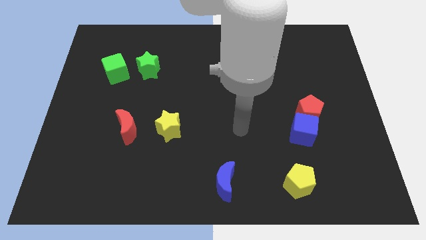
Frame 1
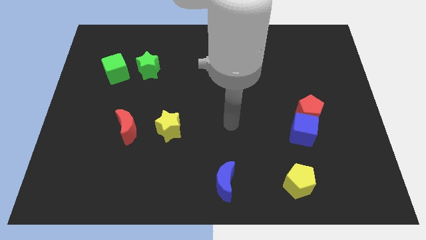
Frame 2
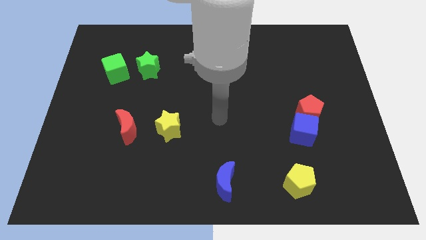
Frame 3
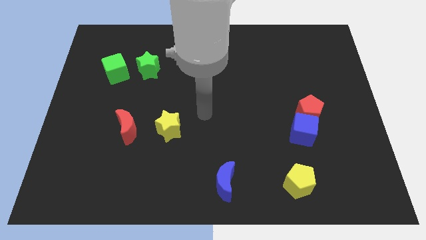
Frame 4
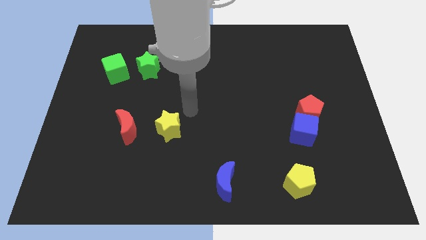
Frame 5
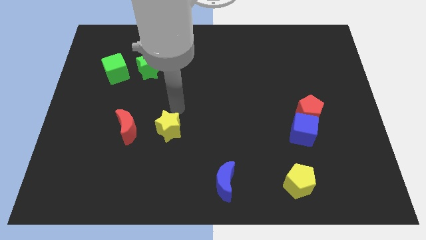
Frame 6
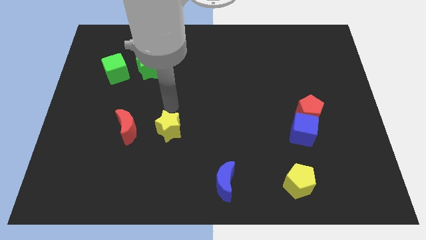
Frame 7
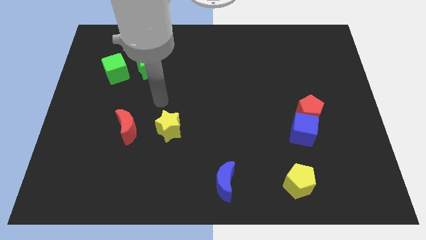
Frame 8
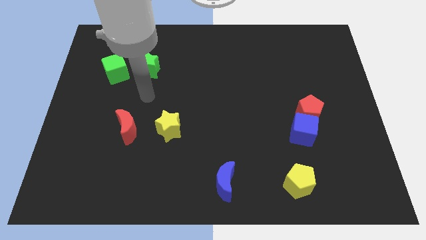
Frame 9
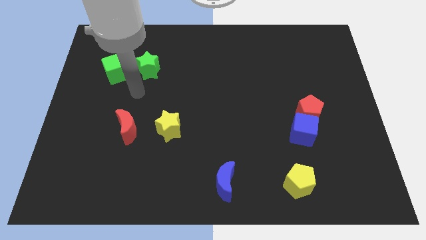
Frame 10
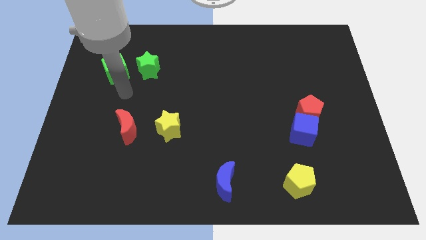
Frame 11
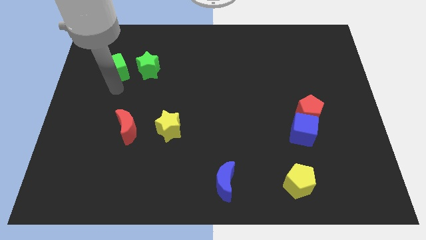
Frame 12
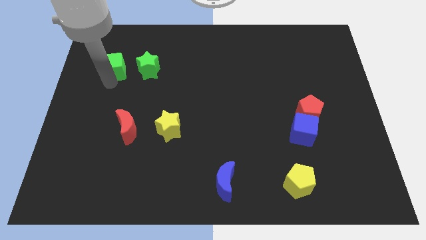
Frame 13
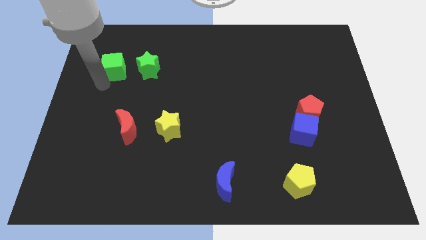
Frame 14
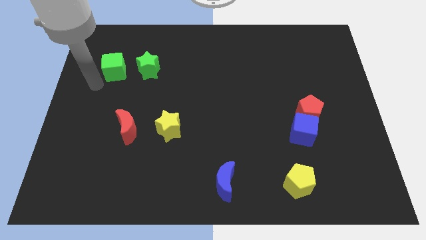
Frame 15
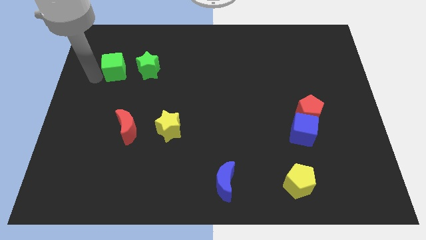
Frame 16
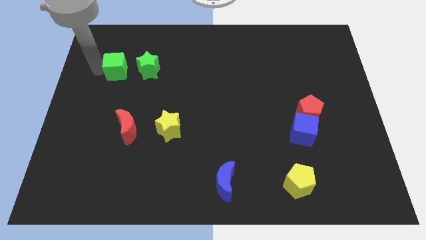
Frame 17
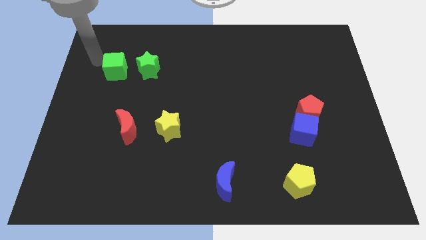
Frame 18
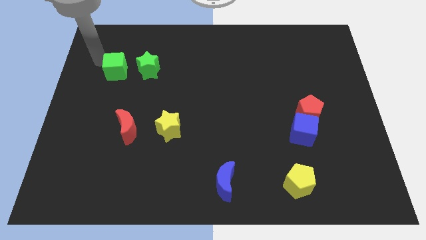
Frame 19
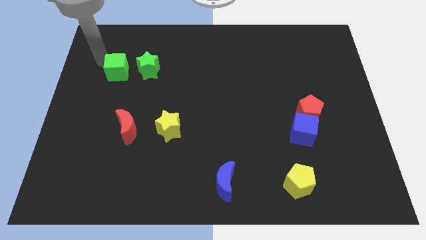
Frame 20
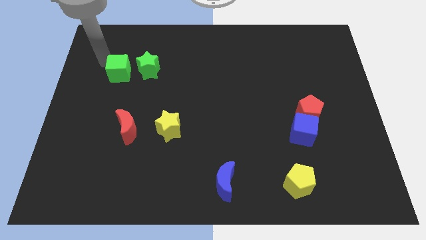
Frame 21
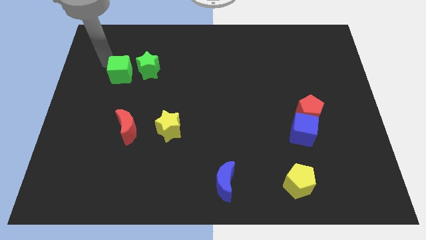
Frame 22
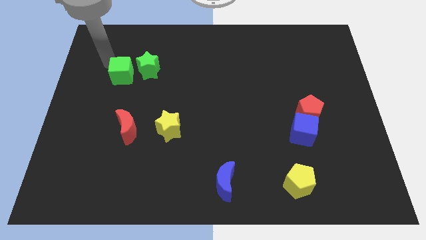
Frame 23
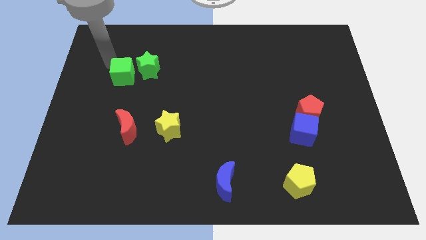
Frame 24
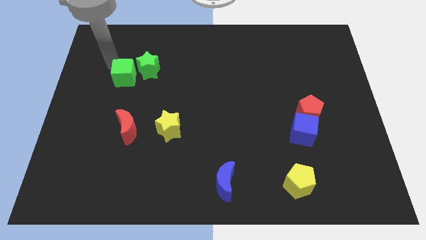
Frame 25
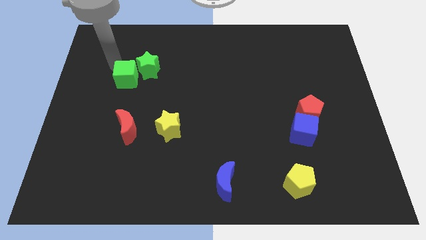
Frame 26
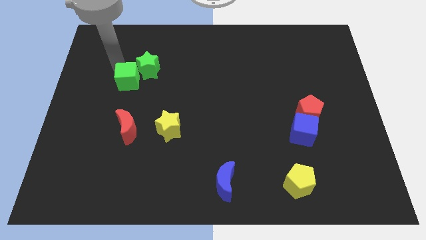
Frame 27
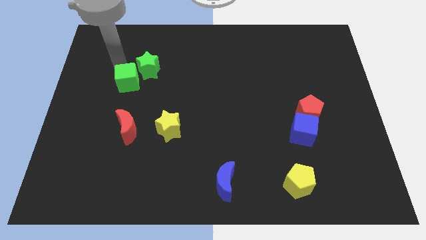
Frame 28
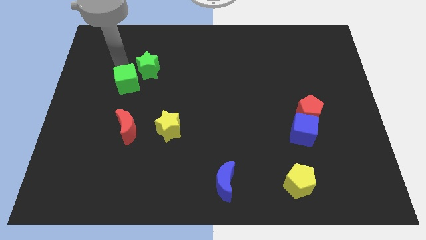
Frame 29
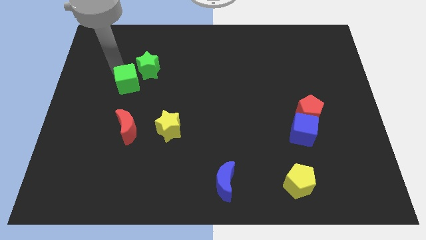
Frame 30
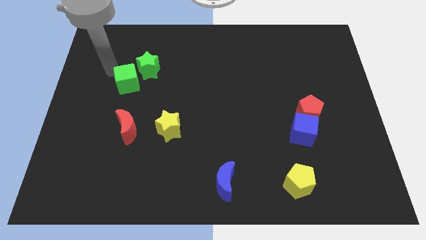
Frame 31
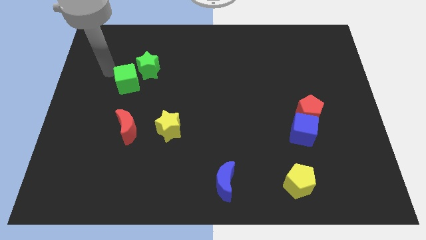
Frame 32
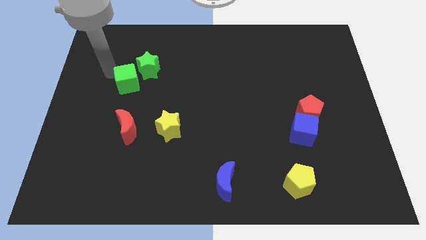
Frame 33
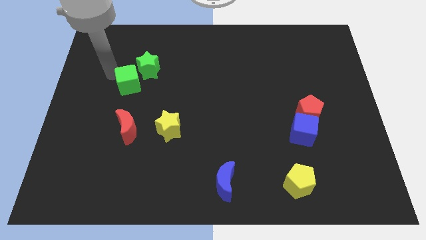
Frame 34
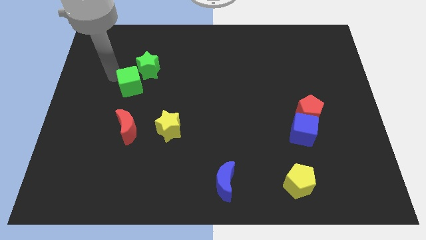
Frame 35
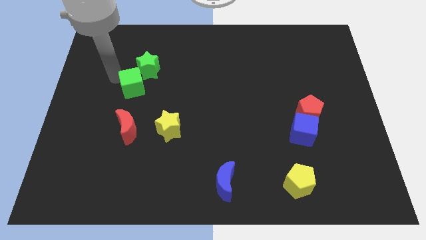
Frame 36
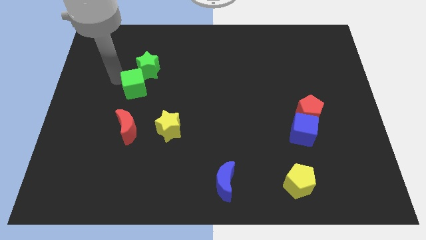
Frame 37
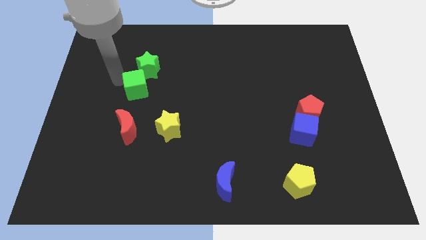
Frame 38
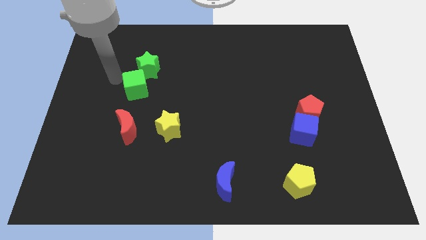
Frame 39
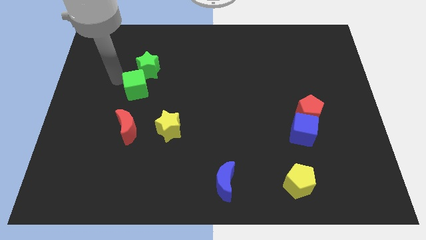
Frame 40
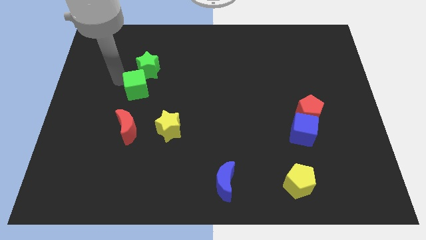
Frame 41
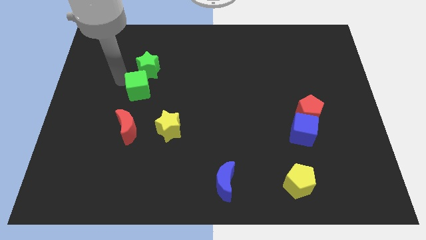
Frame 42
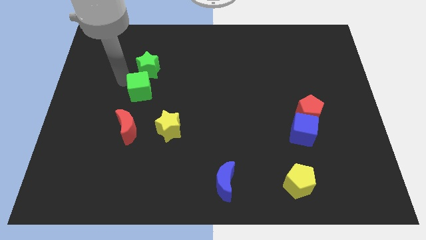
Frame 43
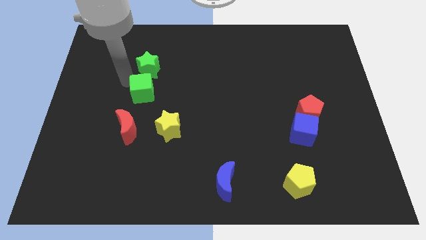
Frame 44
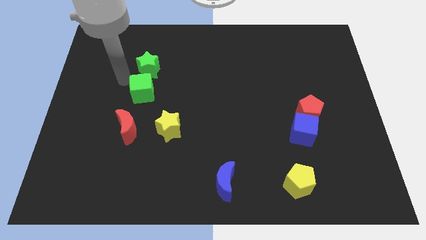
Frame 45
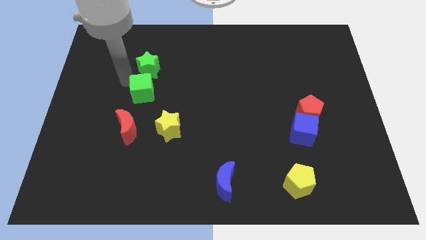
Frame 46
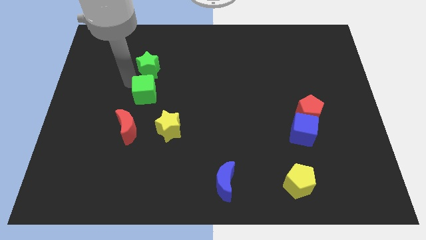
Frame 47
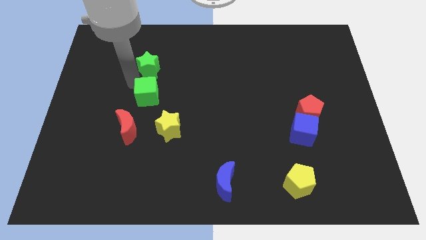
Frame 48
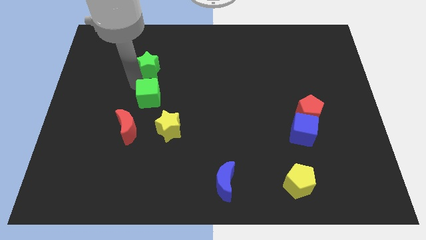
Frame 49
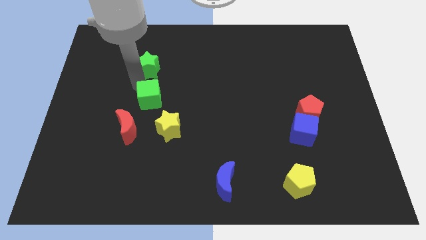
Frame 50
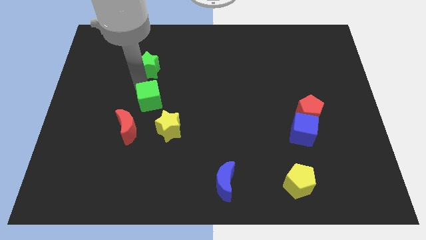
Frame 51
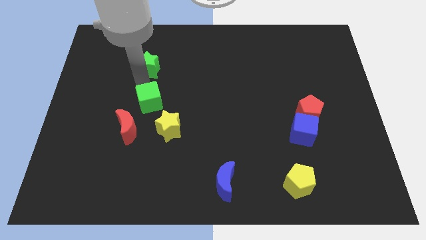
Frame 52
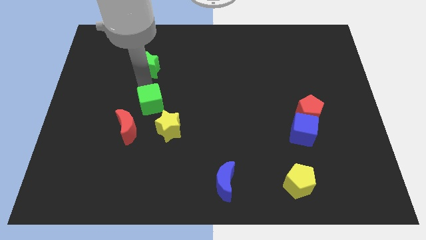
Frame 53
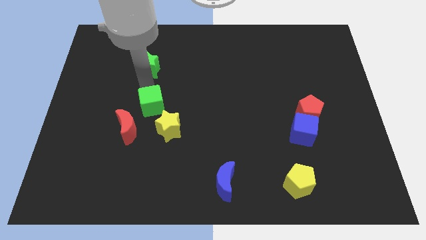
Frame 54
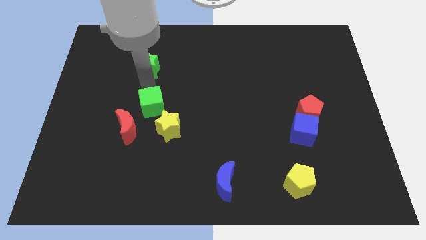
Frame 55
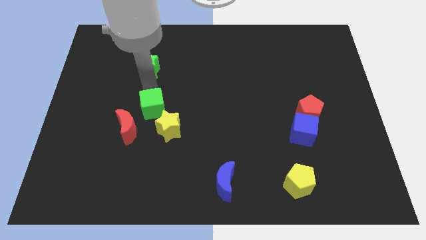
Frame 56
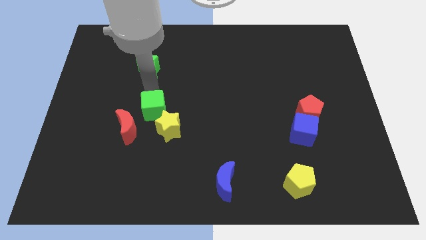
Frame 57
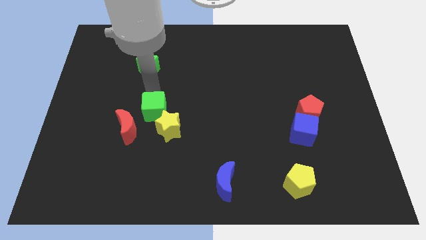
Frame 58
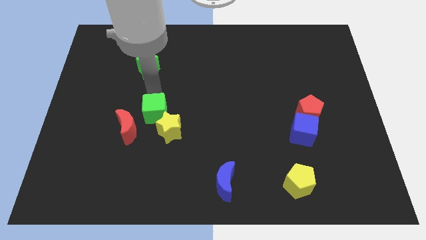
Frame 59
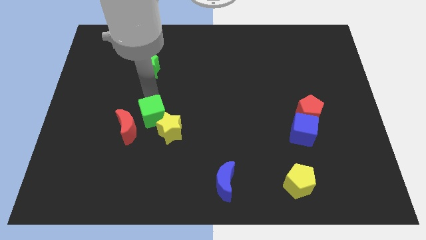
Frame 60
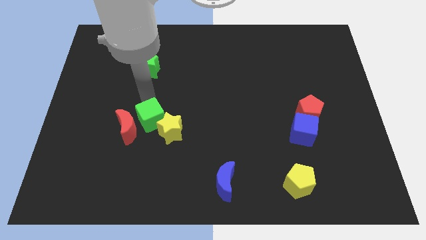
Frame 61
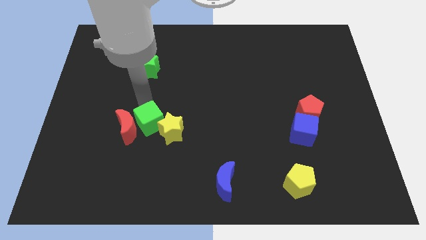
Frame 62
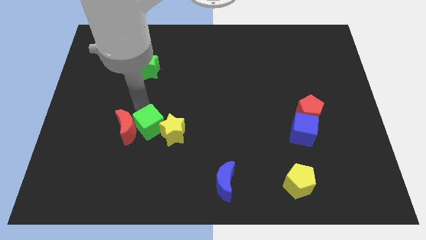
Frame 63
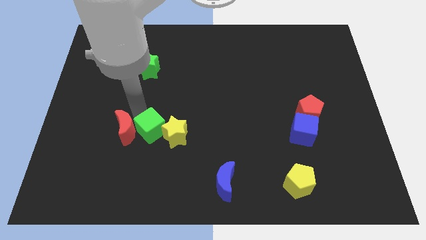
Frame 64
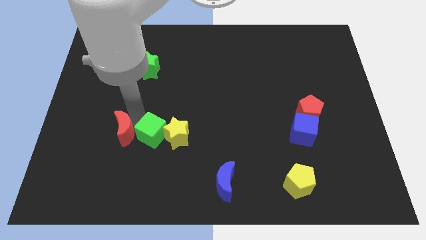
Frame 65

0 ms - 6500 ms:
slide the green cube downwards and right diagonally

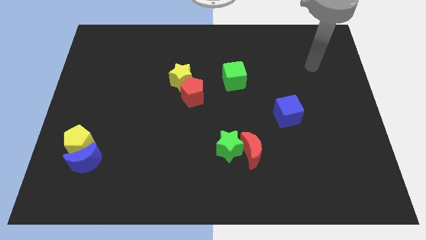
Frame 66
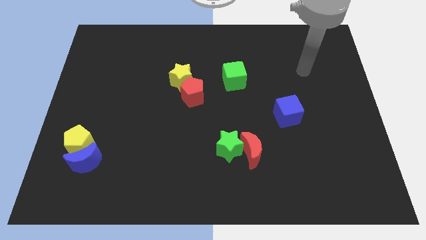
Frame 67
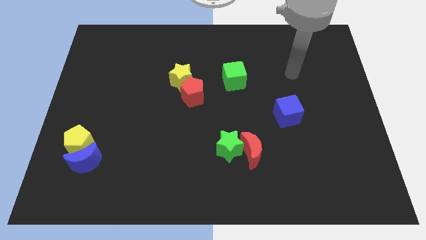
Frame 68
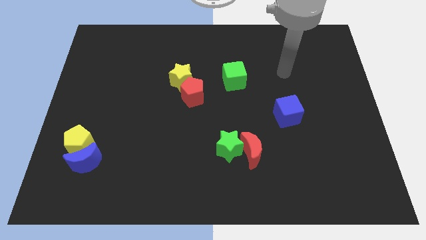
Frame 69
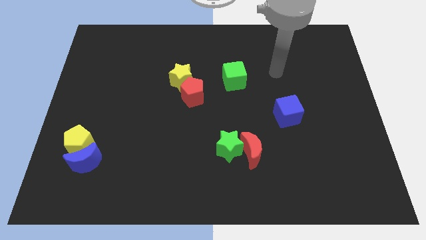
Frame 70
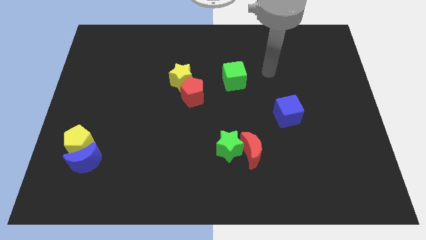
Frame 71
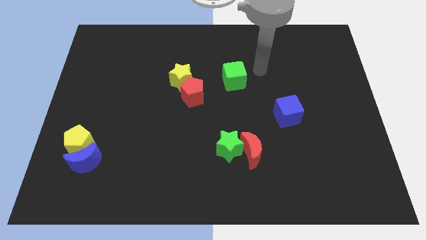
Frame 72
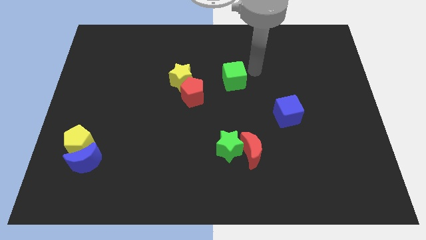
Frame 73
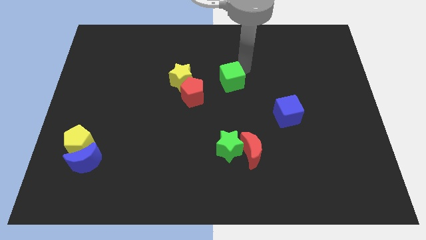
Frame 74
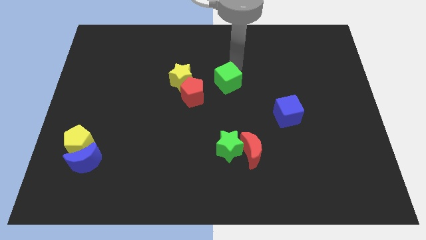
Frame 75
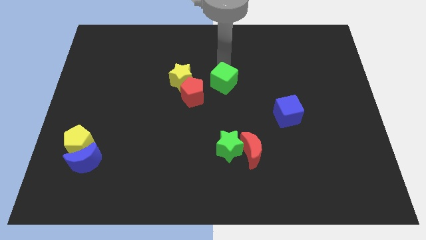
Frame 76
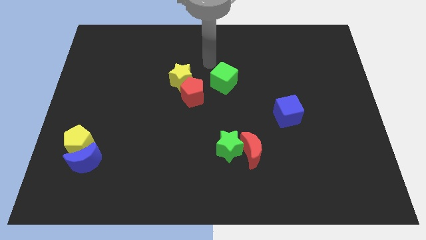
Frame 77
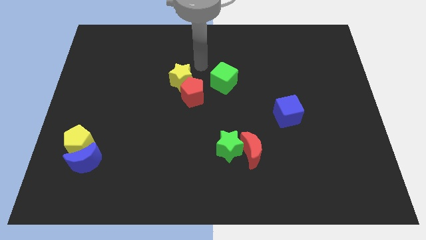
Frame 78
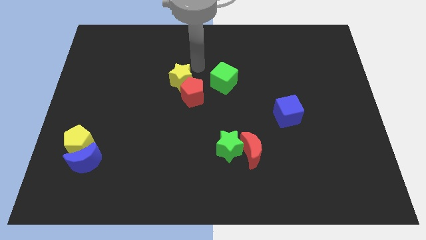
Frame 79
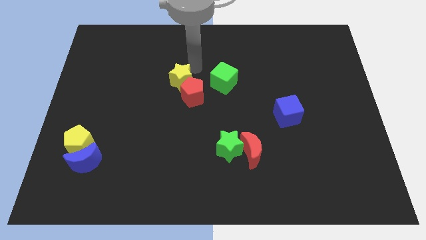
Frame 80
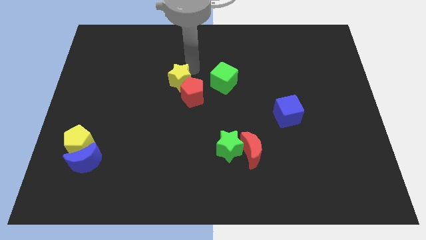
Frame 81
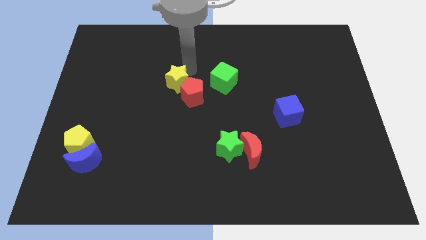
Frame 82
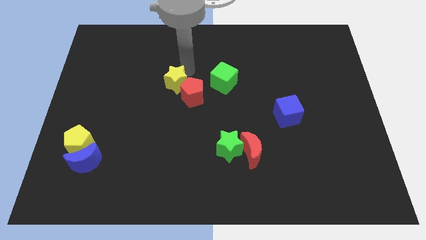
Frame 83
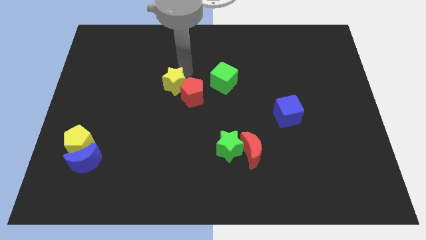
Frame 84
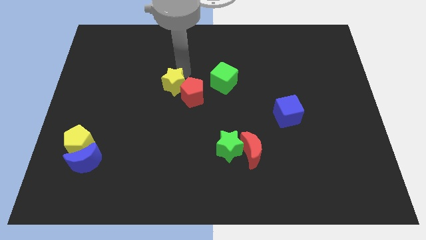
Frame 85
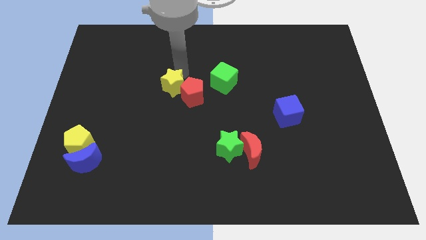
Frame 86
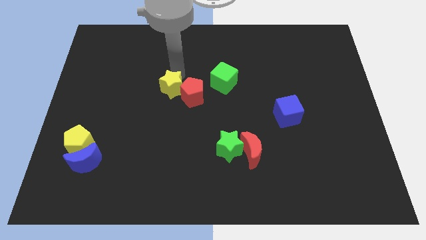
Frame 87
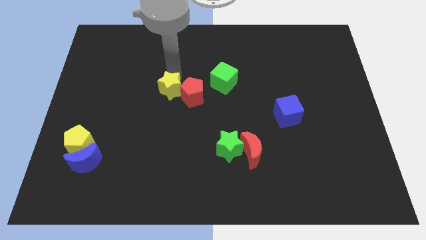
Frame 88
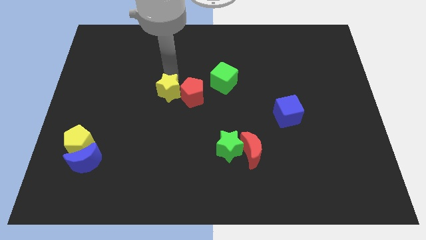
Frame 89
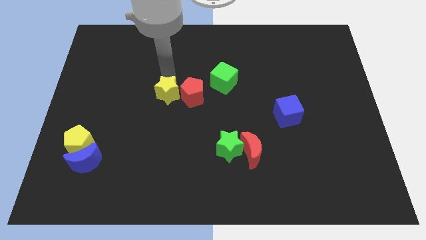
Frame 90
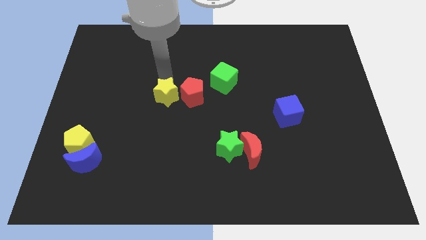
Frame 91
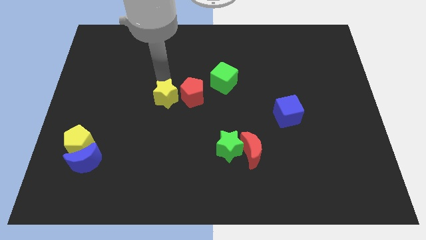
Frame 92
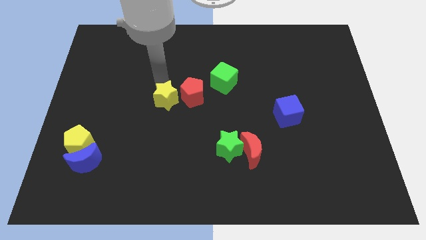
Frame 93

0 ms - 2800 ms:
push the yellow star a little down and left
